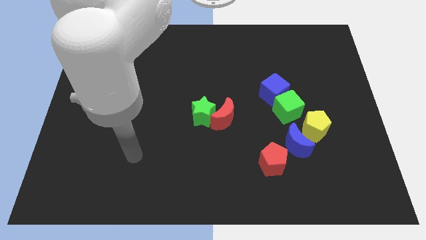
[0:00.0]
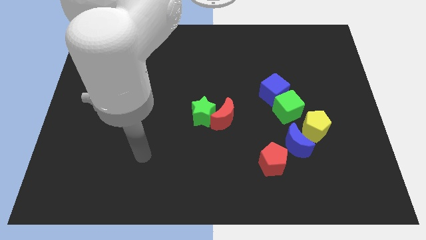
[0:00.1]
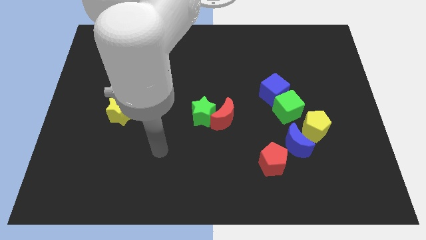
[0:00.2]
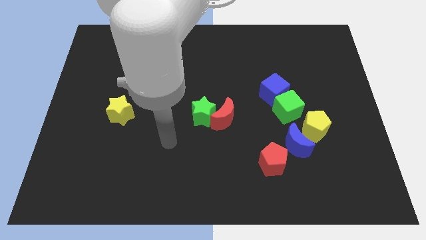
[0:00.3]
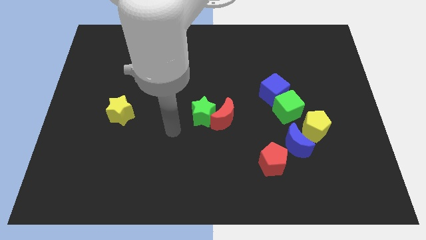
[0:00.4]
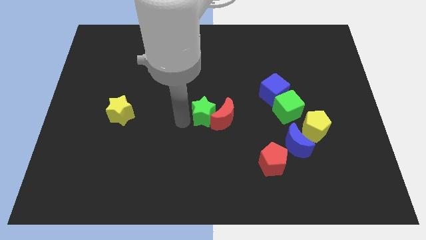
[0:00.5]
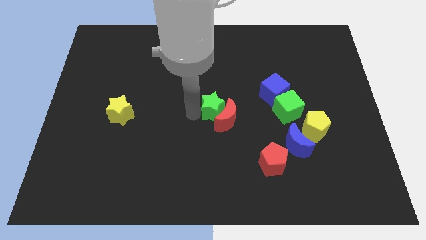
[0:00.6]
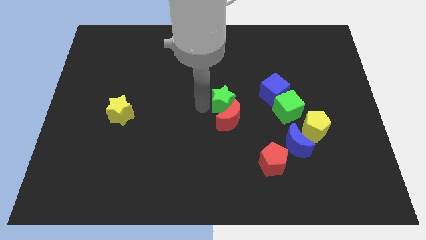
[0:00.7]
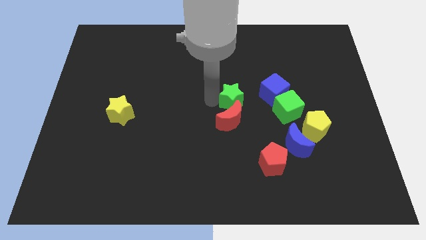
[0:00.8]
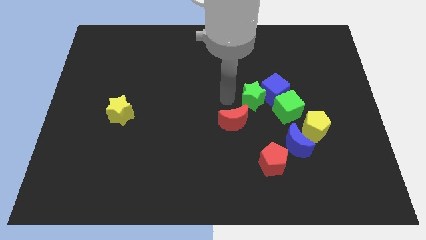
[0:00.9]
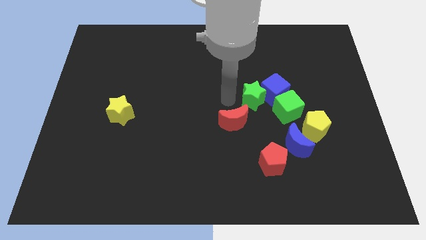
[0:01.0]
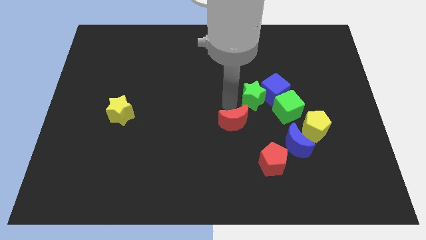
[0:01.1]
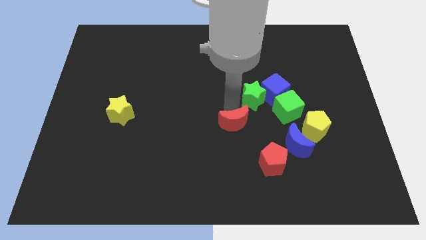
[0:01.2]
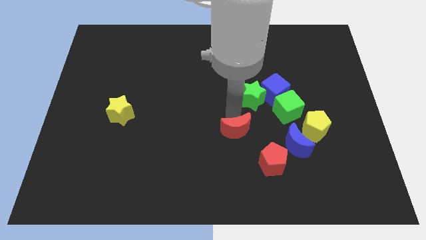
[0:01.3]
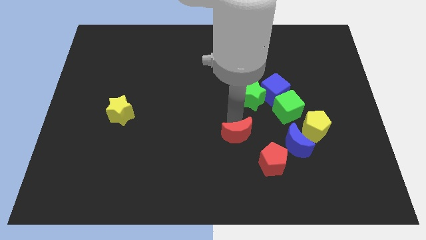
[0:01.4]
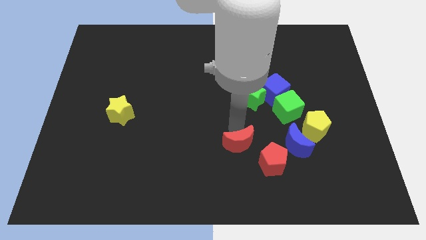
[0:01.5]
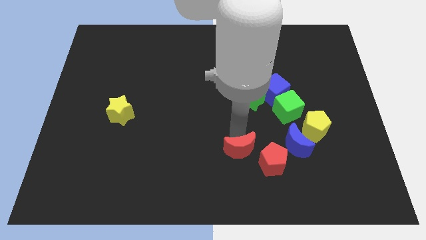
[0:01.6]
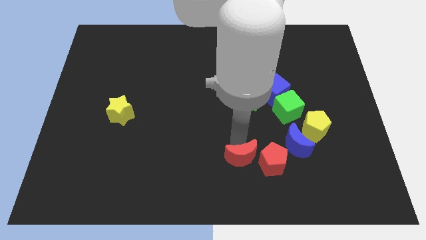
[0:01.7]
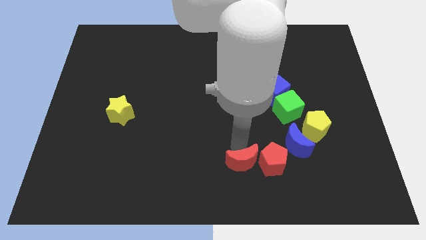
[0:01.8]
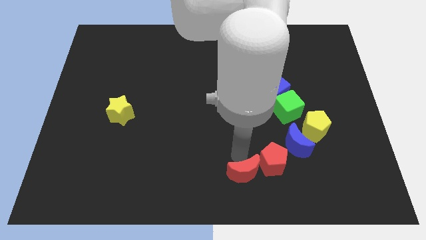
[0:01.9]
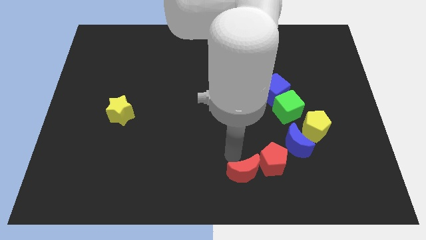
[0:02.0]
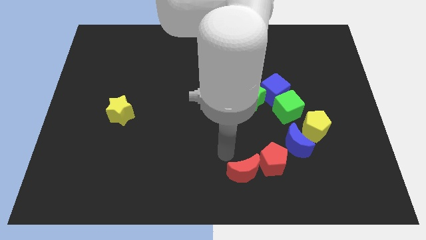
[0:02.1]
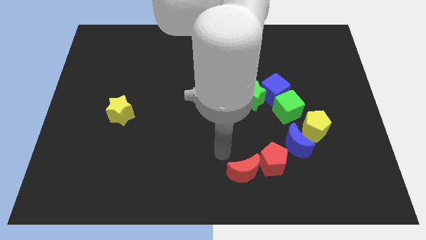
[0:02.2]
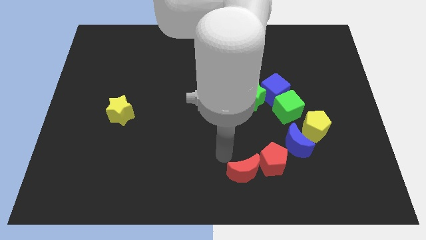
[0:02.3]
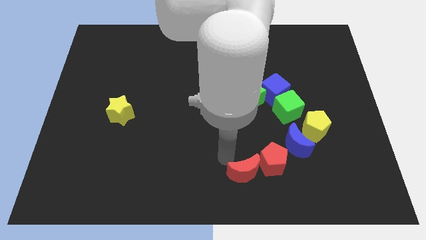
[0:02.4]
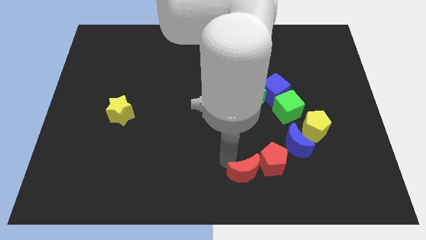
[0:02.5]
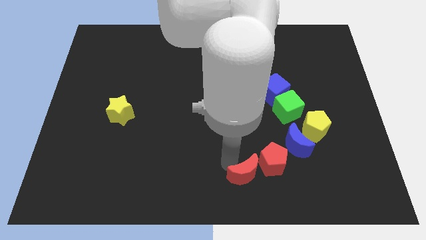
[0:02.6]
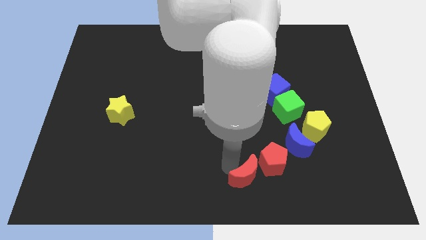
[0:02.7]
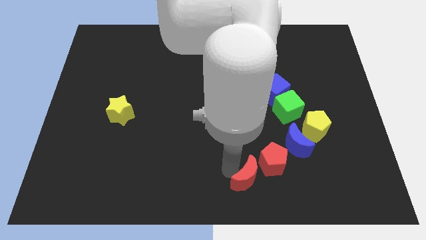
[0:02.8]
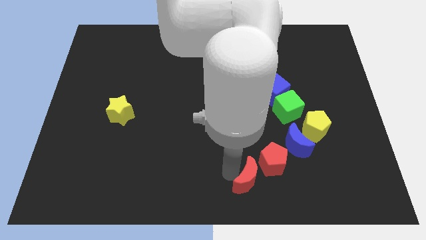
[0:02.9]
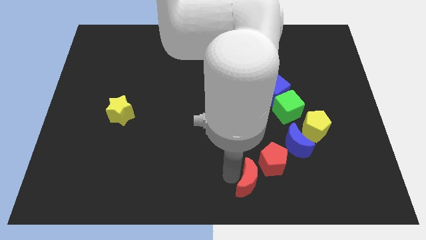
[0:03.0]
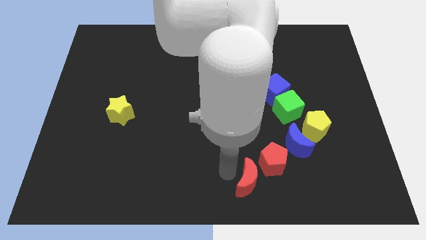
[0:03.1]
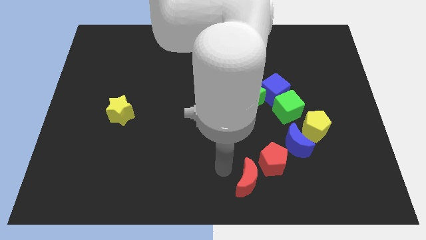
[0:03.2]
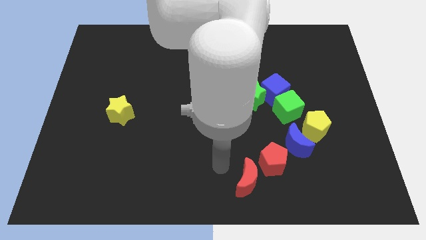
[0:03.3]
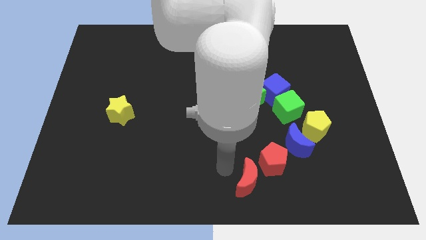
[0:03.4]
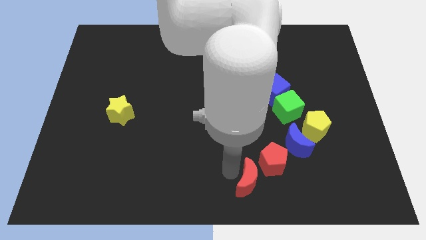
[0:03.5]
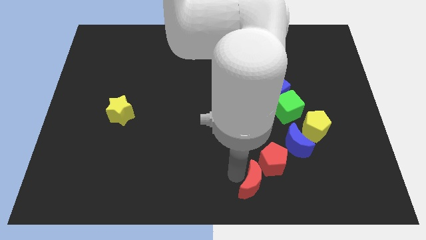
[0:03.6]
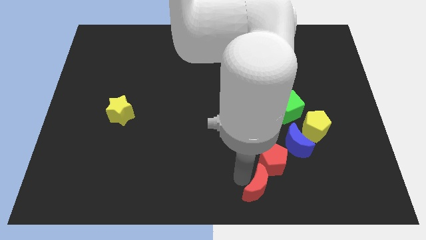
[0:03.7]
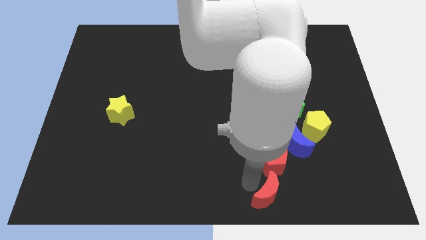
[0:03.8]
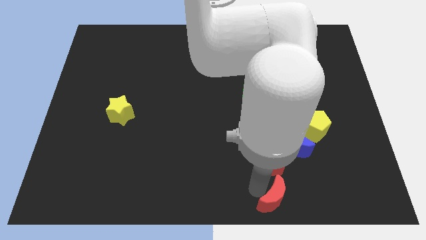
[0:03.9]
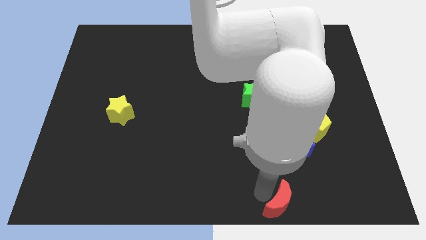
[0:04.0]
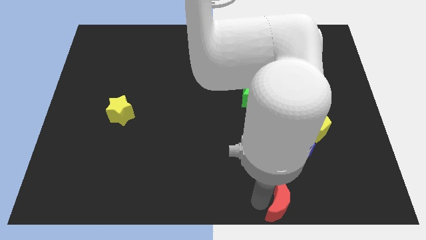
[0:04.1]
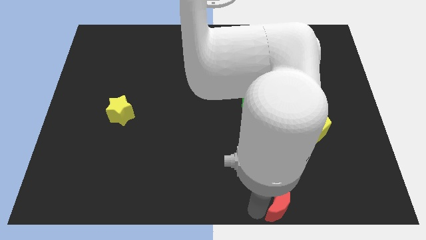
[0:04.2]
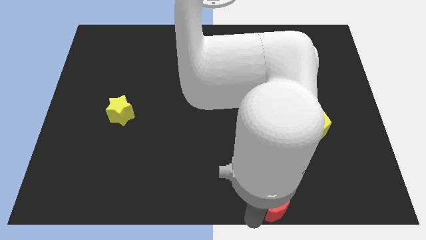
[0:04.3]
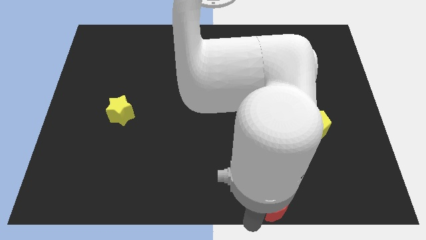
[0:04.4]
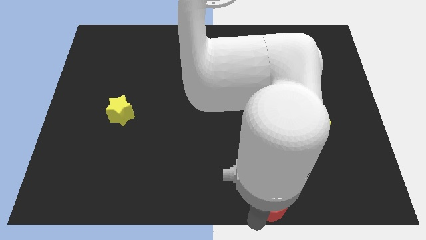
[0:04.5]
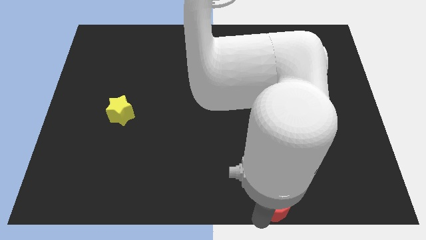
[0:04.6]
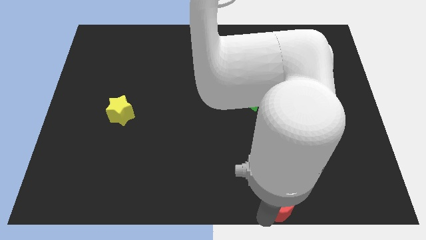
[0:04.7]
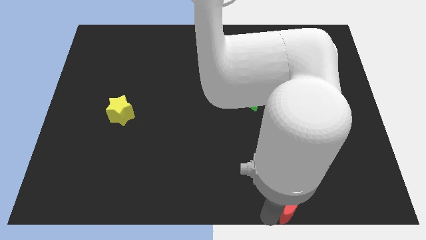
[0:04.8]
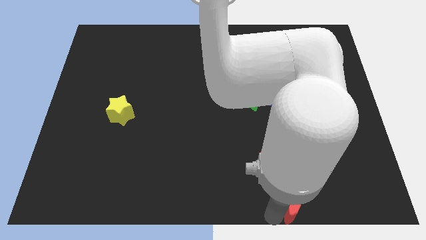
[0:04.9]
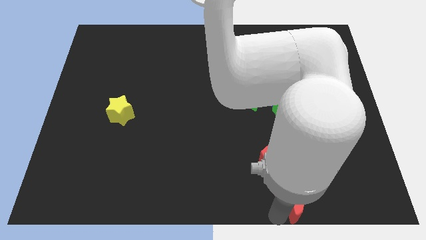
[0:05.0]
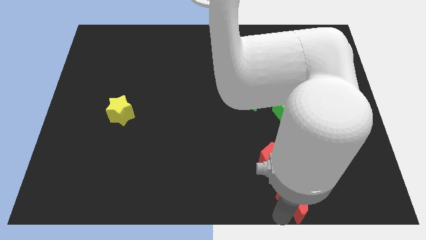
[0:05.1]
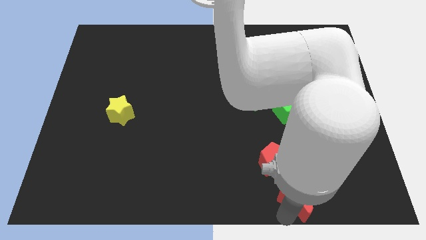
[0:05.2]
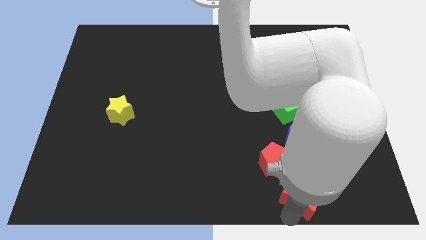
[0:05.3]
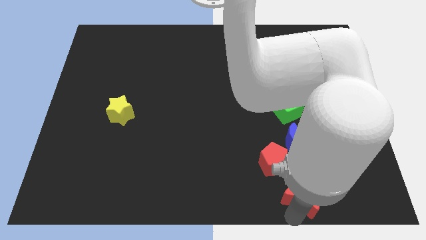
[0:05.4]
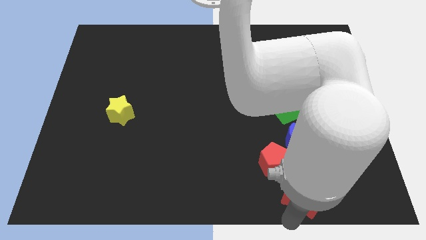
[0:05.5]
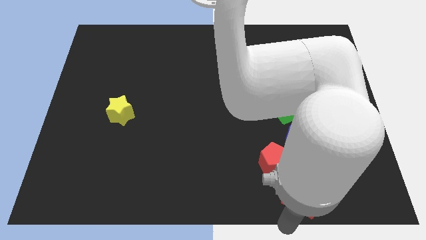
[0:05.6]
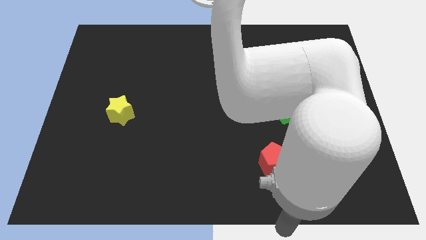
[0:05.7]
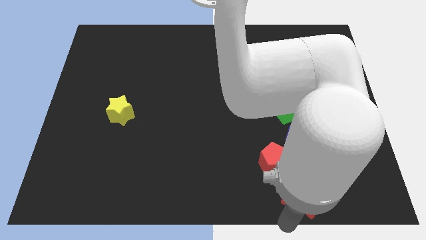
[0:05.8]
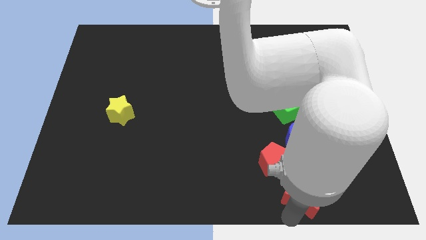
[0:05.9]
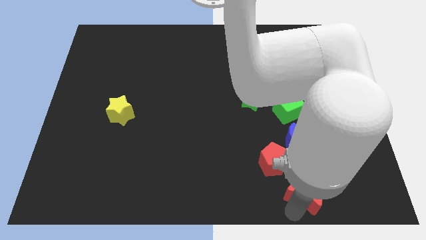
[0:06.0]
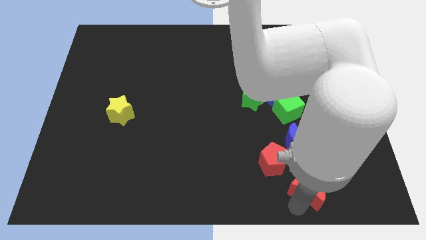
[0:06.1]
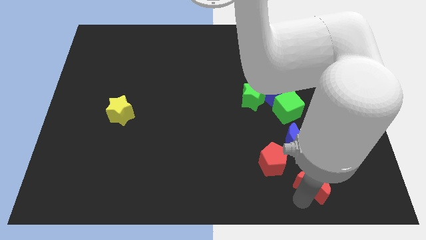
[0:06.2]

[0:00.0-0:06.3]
put the red moon to the bottom side of the yellow pentagon

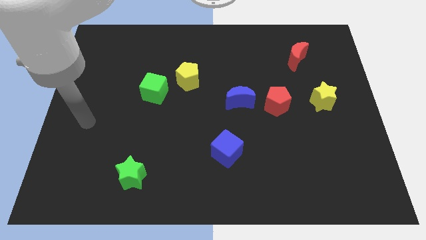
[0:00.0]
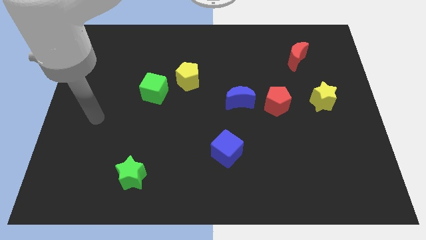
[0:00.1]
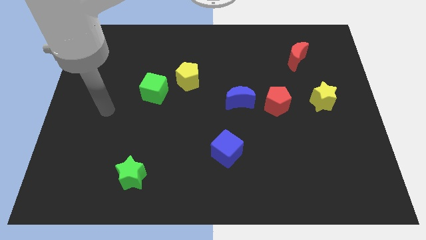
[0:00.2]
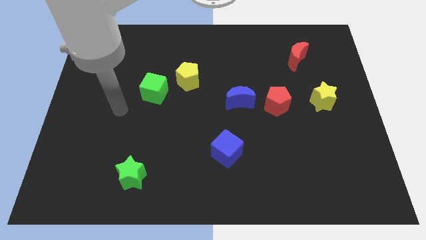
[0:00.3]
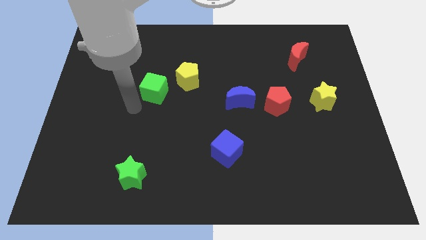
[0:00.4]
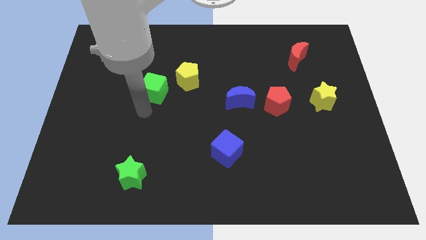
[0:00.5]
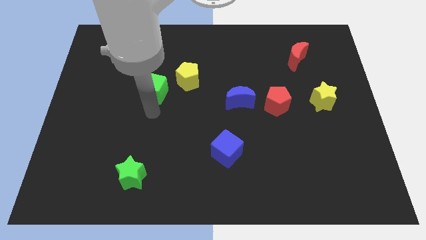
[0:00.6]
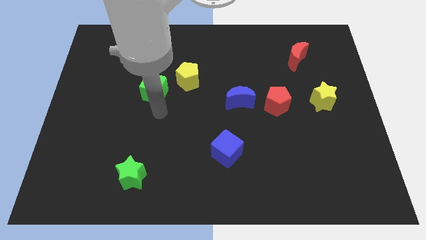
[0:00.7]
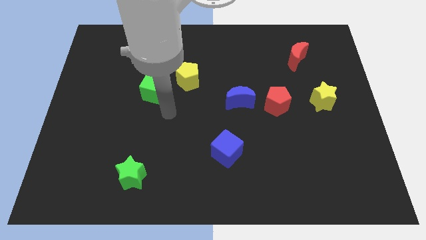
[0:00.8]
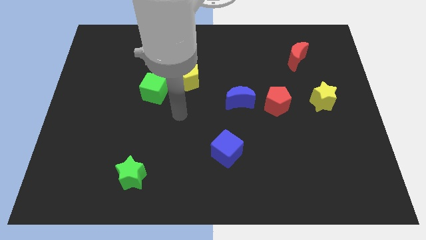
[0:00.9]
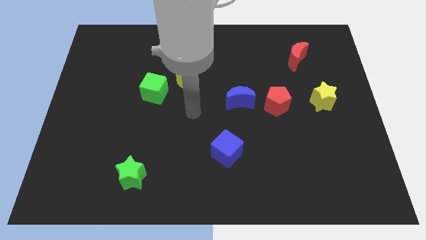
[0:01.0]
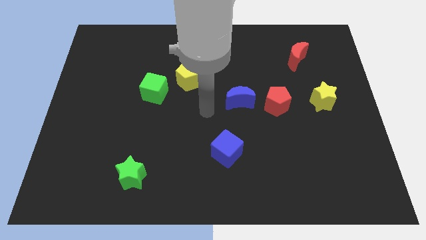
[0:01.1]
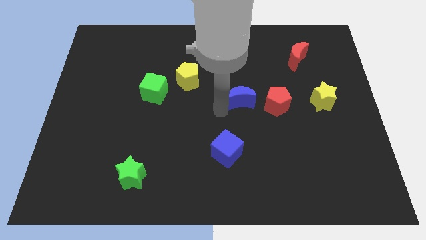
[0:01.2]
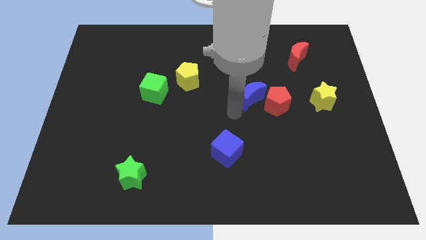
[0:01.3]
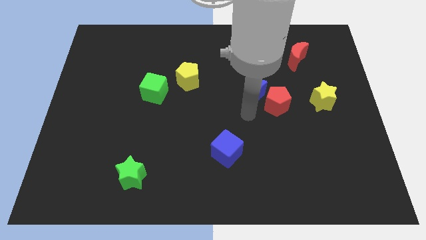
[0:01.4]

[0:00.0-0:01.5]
slide the red pentagon to the top right of the blue moon

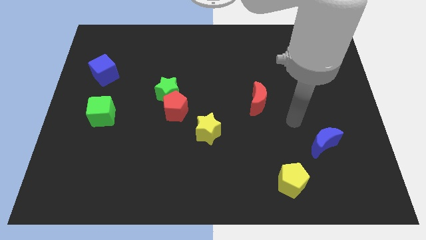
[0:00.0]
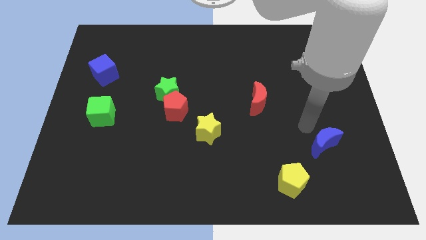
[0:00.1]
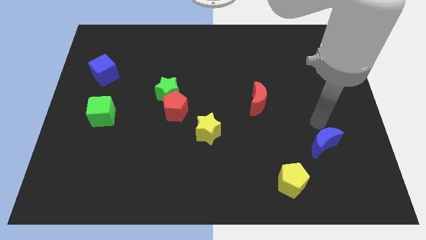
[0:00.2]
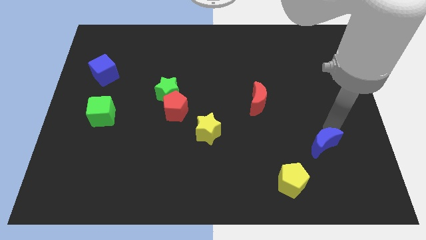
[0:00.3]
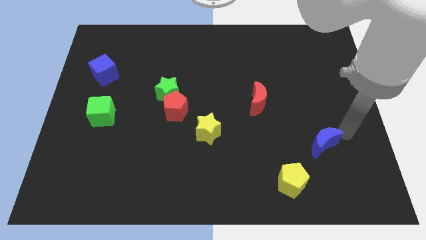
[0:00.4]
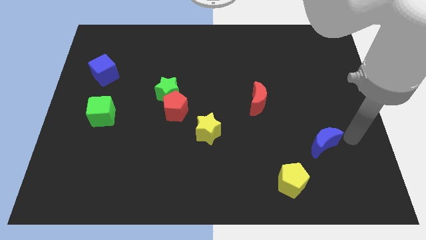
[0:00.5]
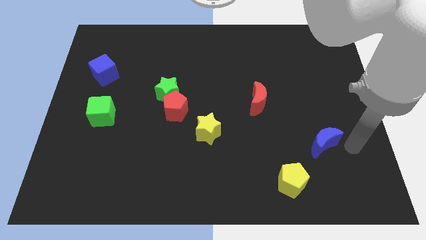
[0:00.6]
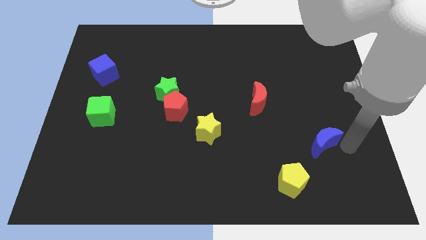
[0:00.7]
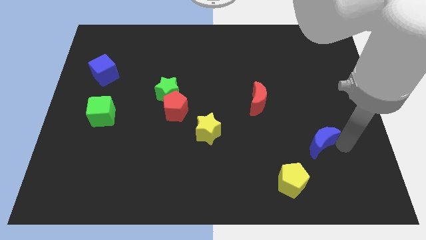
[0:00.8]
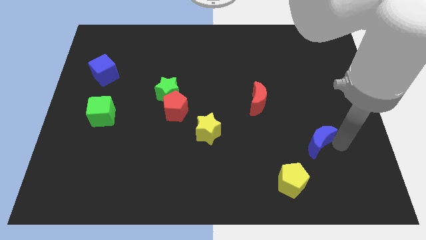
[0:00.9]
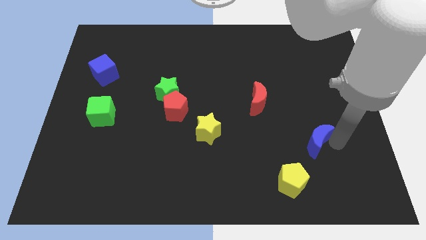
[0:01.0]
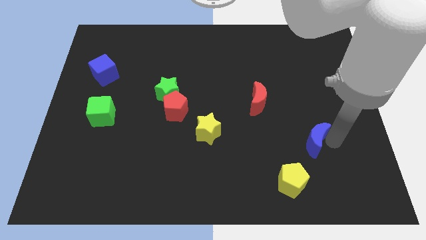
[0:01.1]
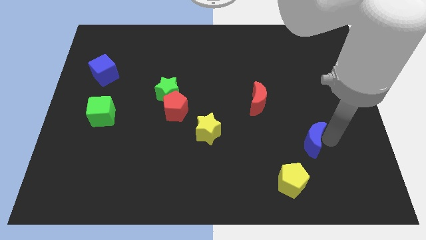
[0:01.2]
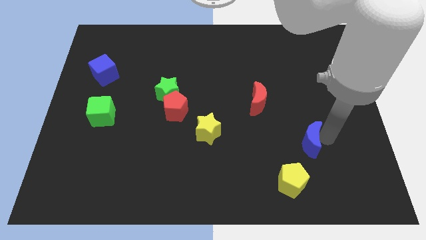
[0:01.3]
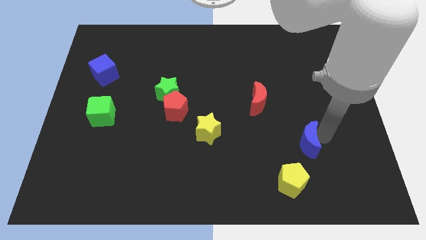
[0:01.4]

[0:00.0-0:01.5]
push the blue moon to the top side of the yellow pentagon
